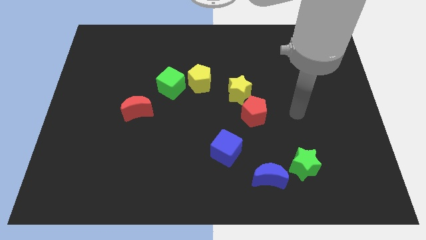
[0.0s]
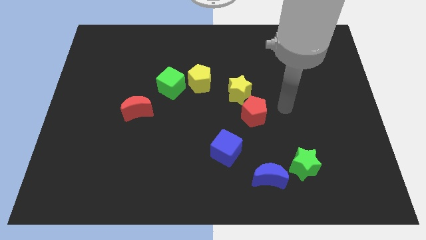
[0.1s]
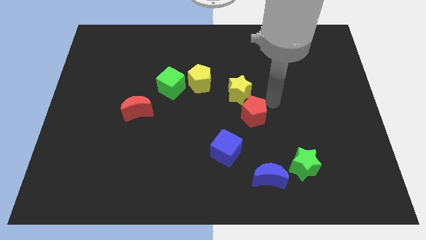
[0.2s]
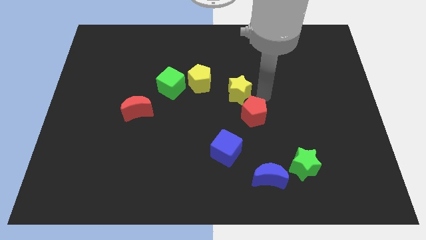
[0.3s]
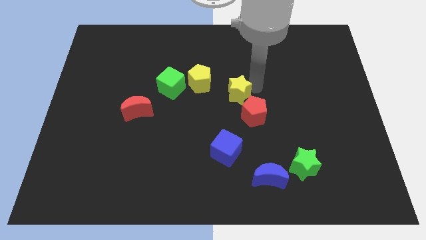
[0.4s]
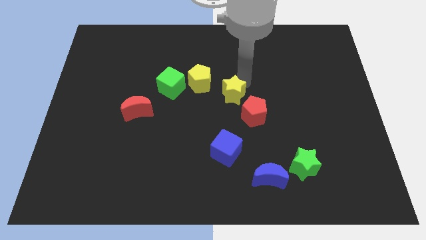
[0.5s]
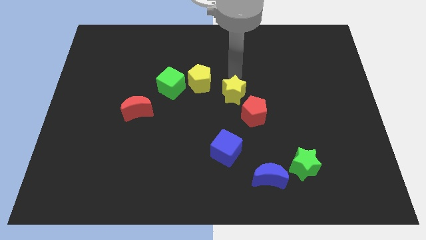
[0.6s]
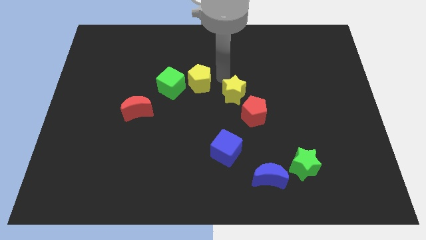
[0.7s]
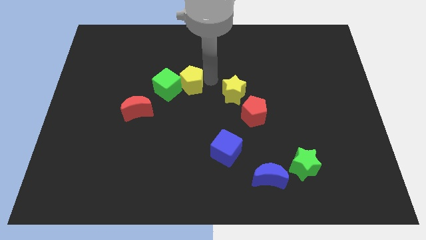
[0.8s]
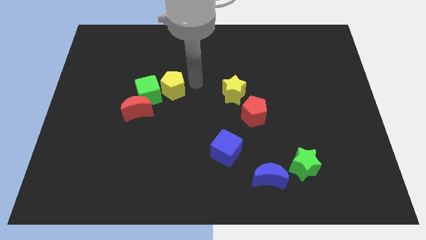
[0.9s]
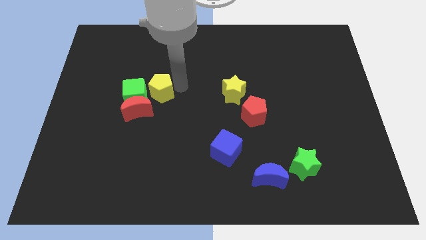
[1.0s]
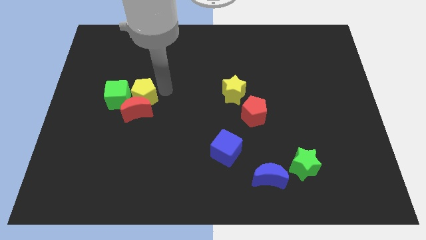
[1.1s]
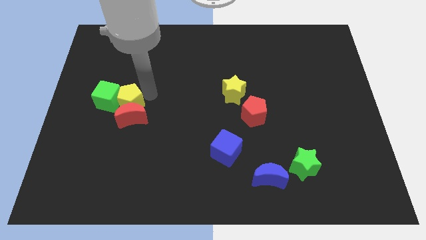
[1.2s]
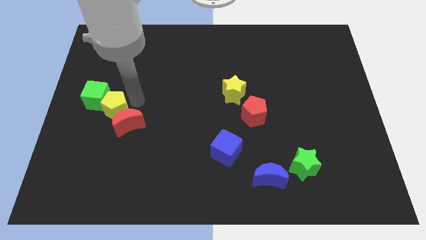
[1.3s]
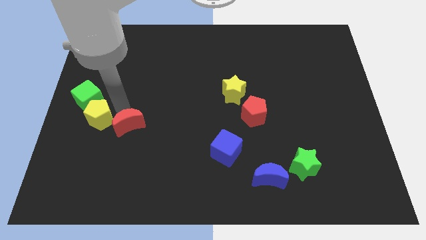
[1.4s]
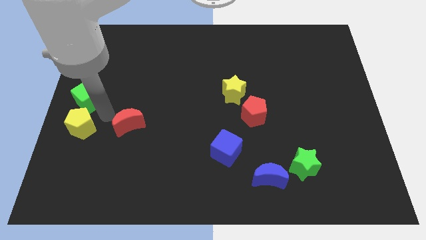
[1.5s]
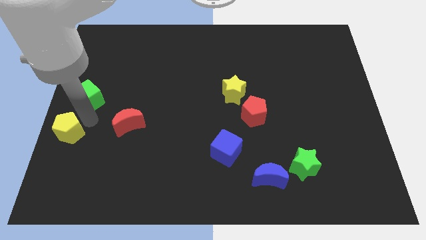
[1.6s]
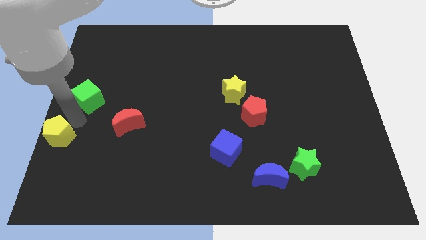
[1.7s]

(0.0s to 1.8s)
separate the green cube from the yellow pentagon

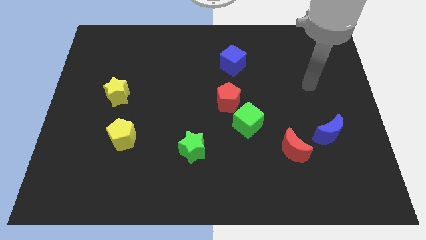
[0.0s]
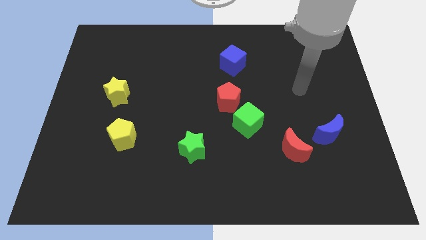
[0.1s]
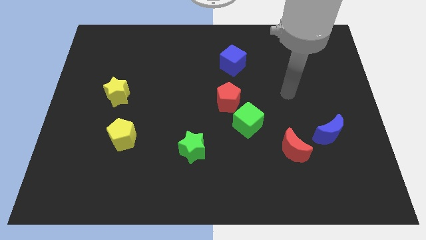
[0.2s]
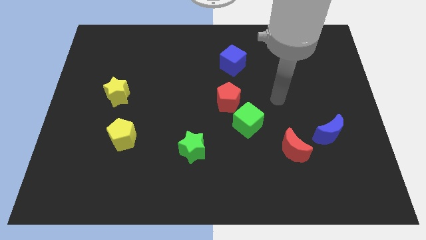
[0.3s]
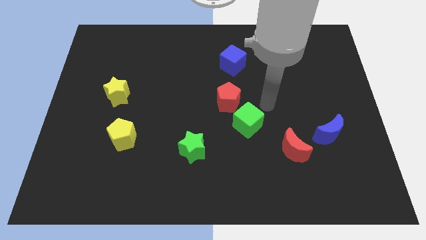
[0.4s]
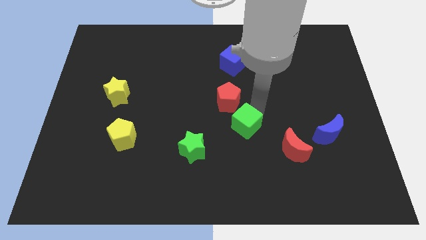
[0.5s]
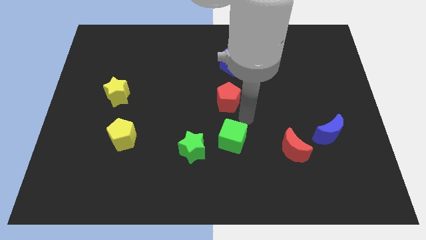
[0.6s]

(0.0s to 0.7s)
pull the red pentagon apart from the green cube

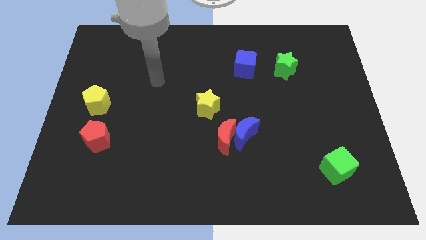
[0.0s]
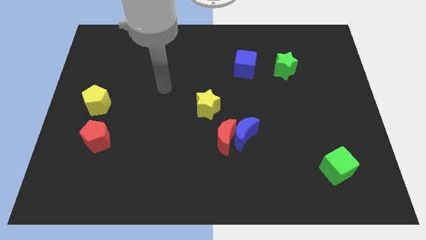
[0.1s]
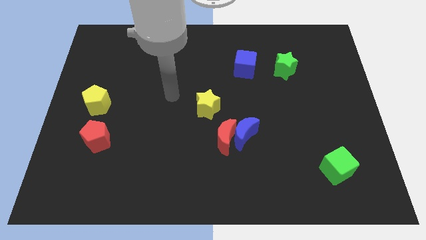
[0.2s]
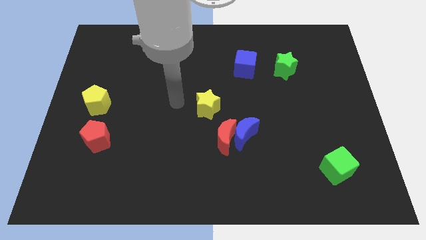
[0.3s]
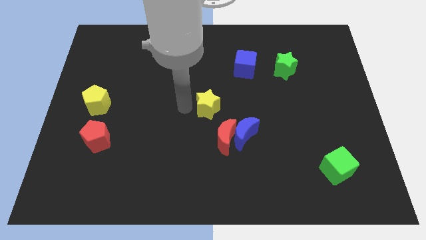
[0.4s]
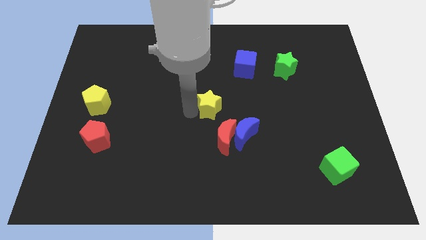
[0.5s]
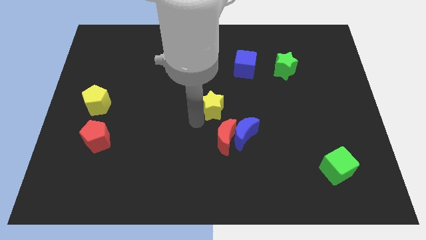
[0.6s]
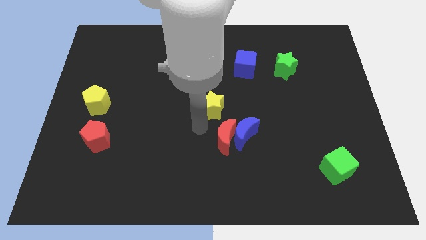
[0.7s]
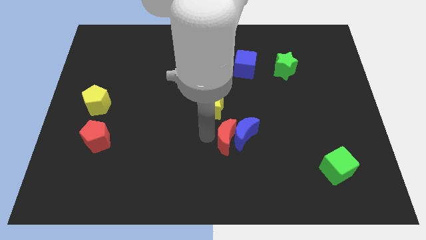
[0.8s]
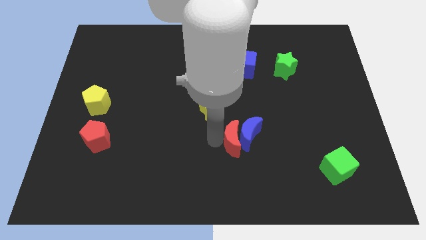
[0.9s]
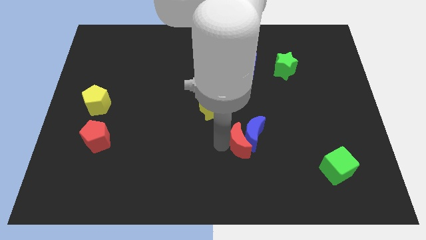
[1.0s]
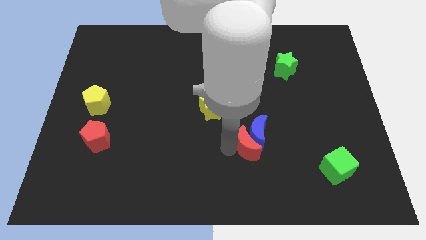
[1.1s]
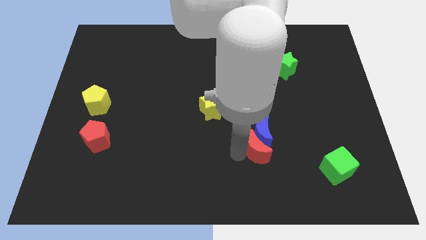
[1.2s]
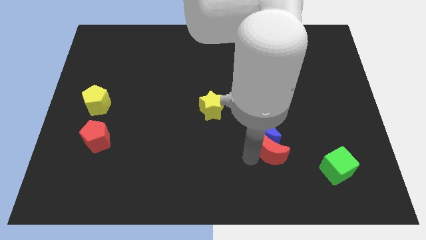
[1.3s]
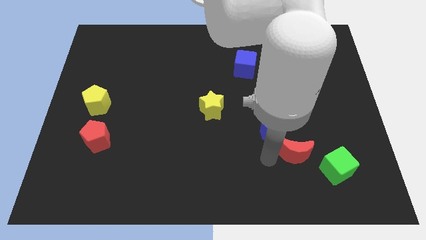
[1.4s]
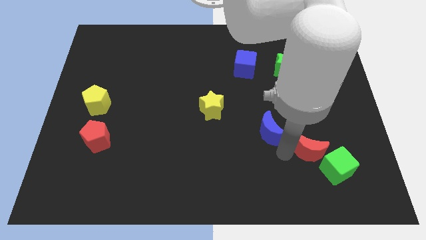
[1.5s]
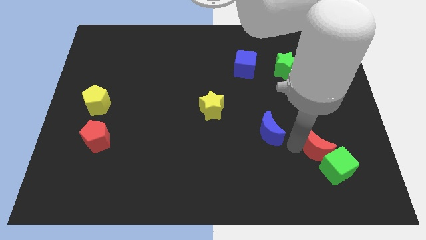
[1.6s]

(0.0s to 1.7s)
separate the blue moon from the red moon

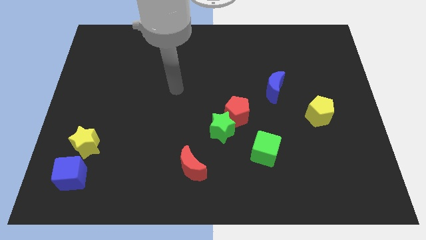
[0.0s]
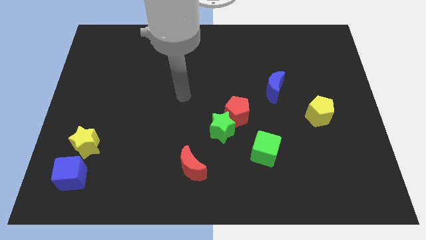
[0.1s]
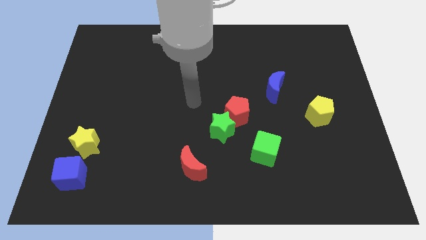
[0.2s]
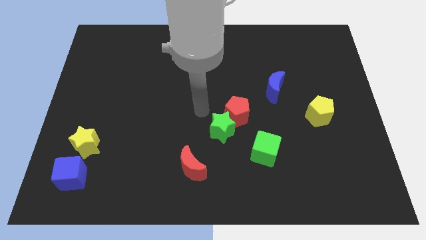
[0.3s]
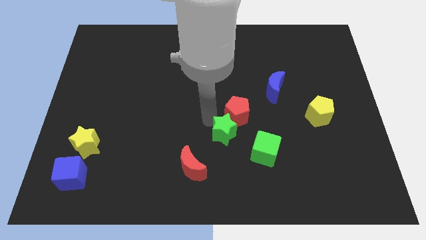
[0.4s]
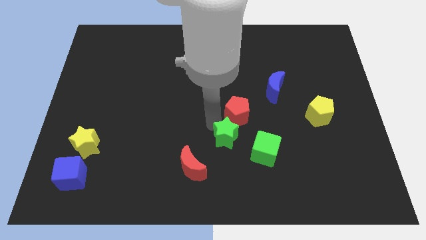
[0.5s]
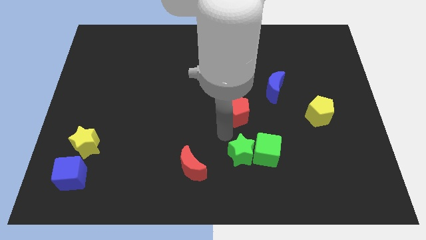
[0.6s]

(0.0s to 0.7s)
move the red pentagon away from the green star

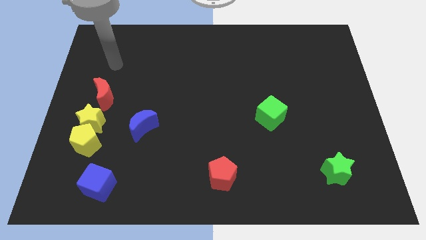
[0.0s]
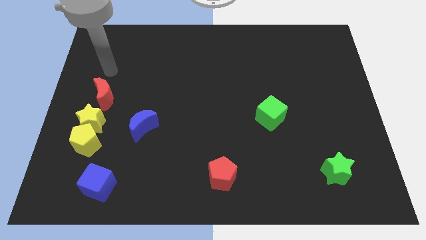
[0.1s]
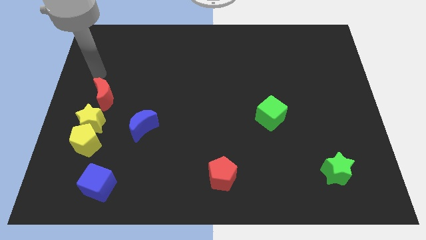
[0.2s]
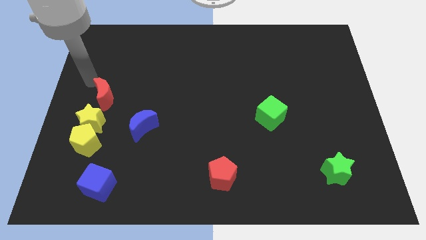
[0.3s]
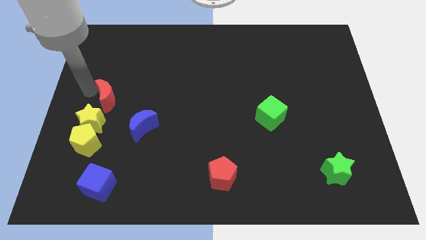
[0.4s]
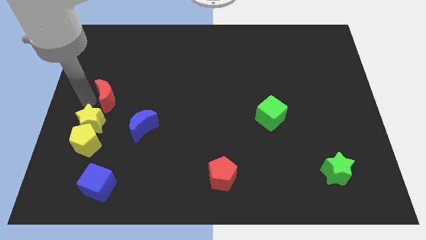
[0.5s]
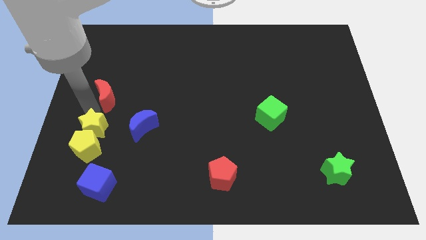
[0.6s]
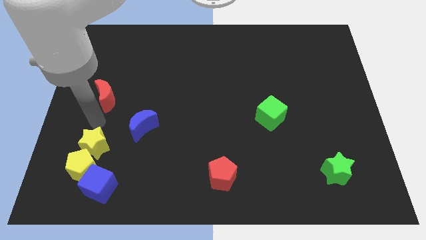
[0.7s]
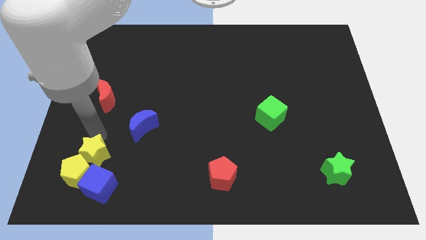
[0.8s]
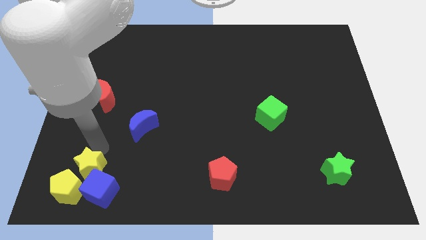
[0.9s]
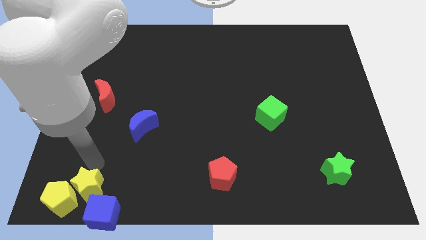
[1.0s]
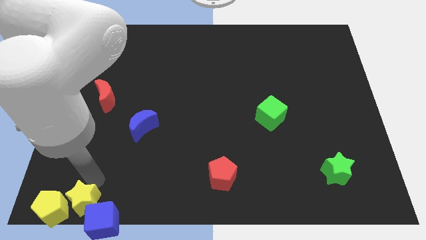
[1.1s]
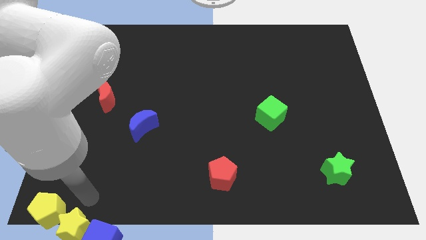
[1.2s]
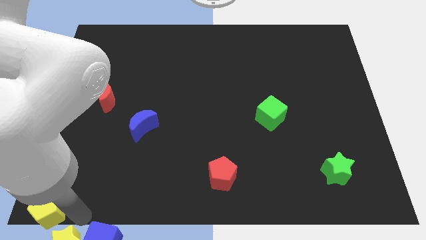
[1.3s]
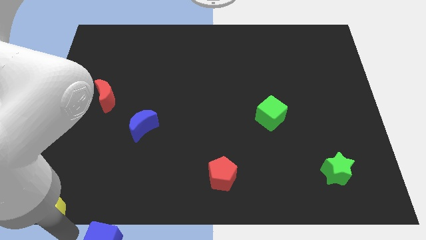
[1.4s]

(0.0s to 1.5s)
pull the yellow pentagon apart from the yellow star

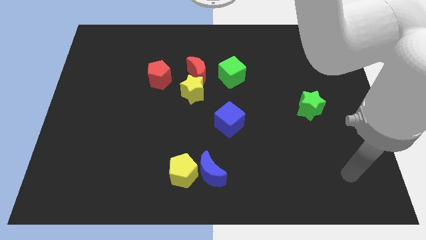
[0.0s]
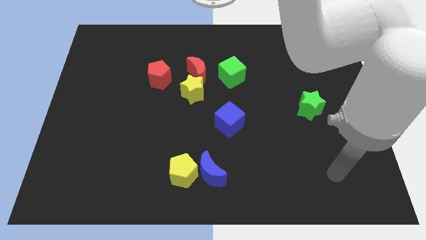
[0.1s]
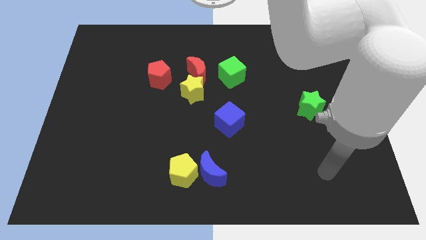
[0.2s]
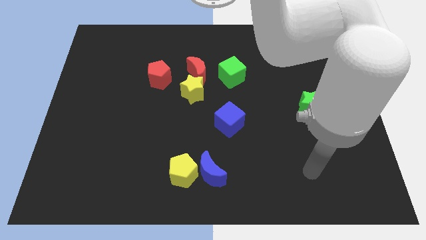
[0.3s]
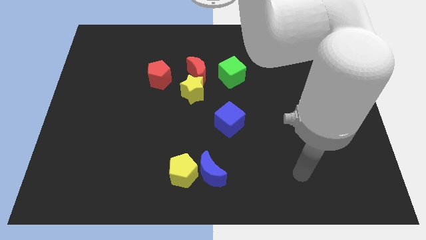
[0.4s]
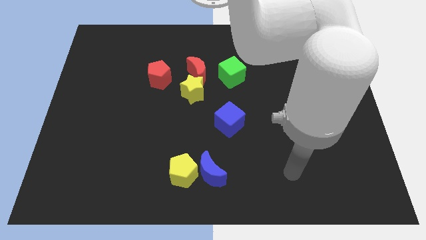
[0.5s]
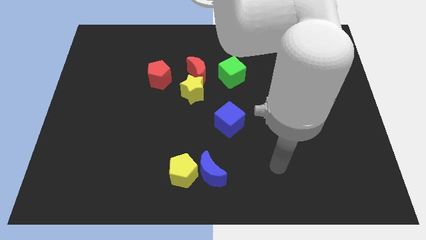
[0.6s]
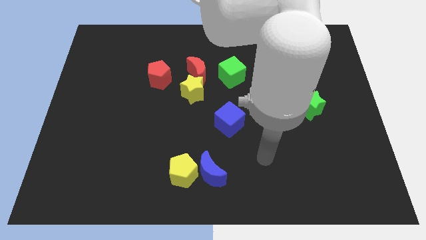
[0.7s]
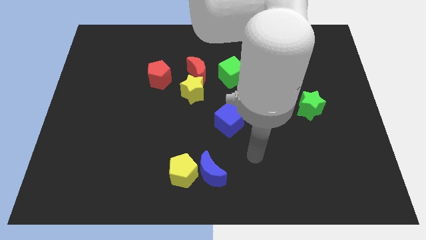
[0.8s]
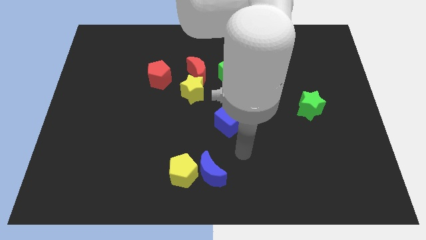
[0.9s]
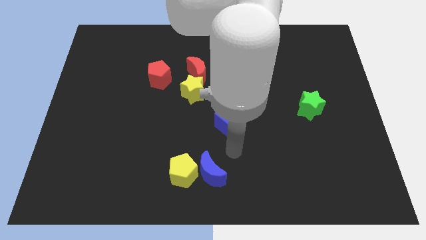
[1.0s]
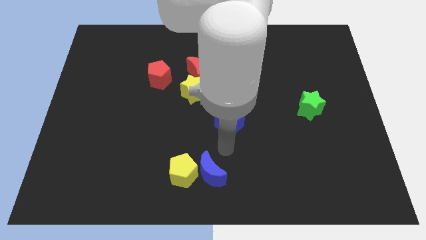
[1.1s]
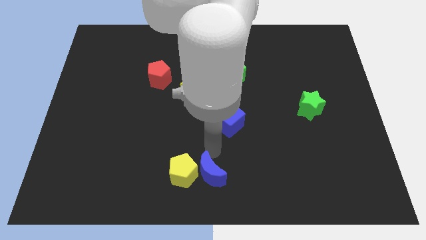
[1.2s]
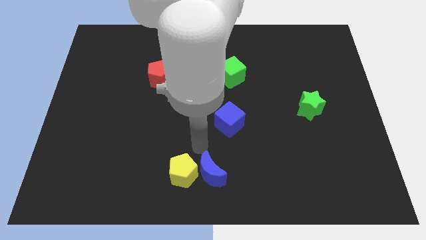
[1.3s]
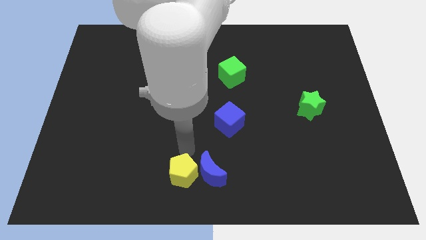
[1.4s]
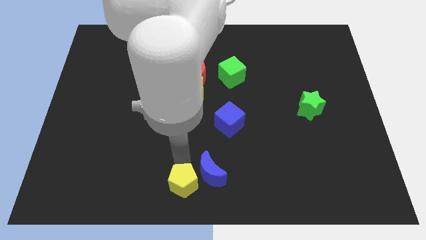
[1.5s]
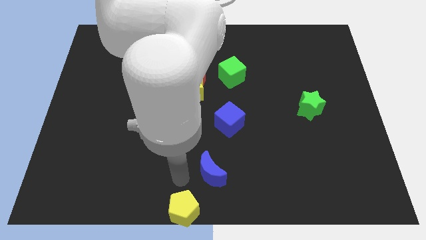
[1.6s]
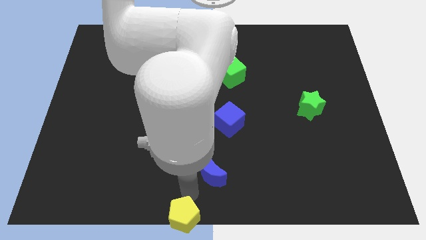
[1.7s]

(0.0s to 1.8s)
separate the blue moon from the yellow pentagon

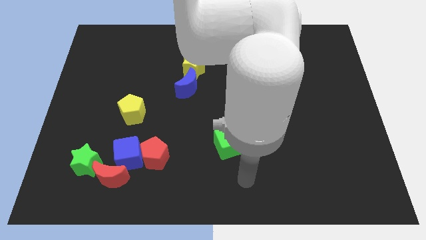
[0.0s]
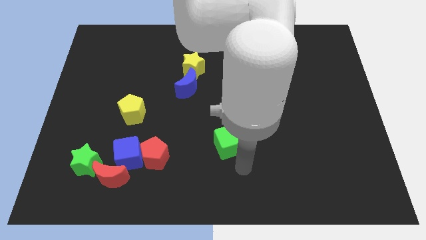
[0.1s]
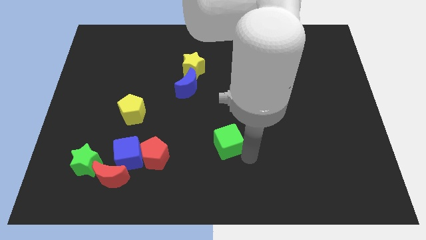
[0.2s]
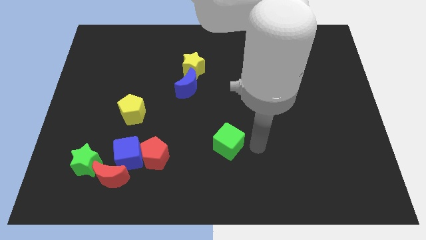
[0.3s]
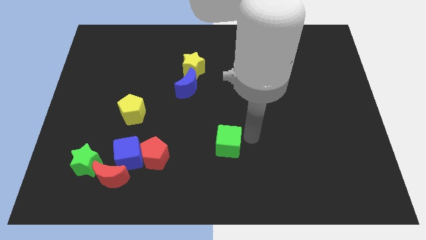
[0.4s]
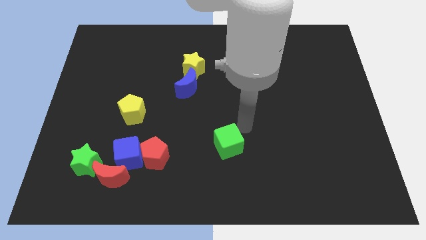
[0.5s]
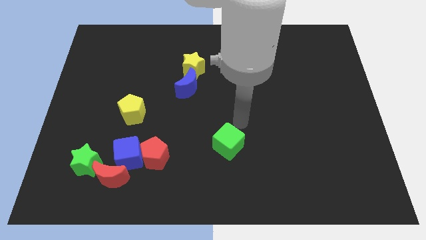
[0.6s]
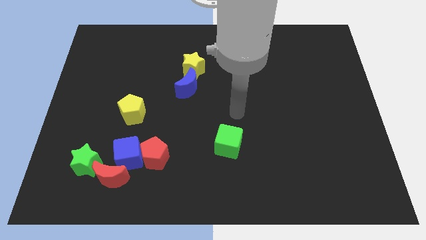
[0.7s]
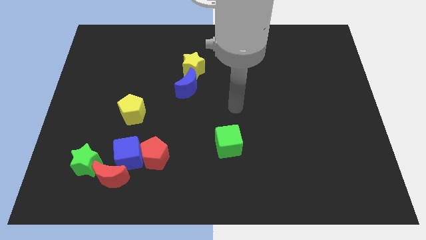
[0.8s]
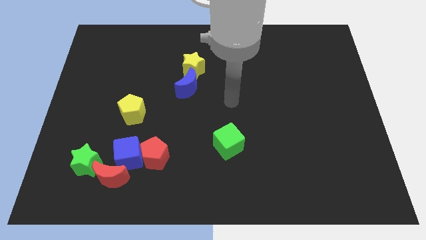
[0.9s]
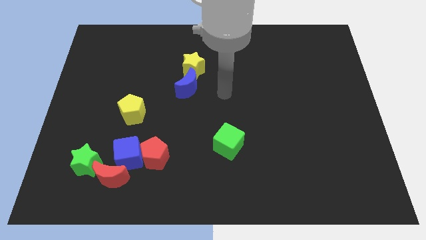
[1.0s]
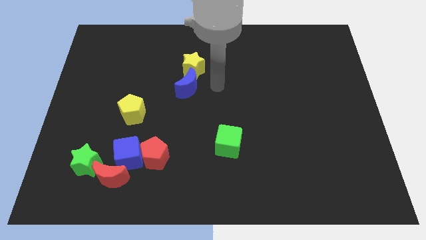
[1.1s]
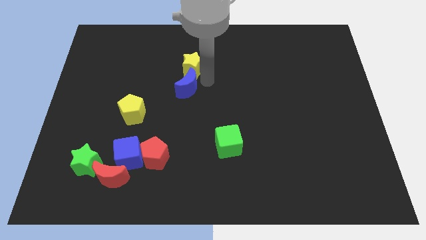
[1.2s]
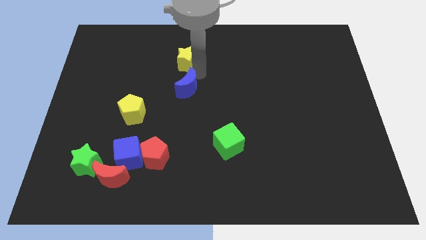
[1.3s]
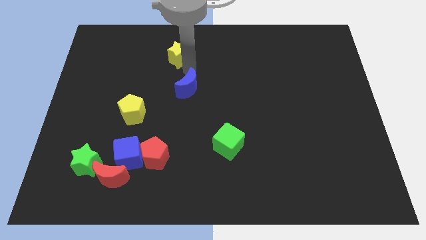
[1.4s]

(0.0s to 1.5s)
separate the blue moon from the yellow star
